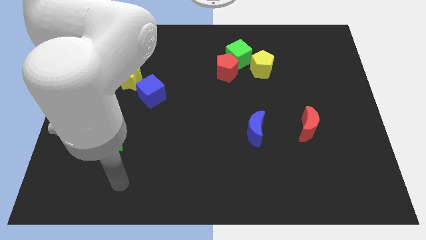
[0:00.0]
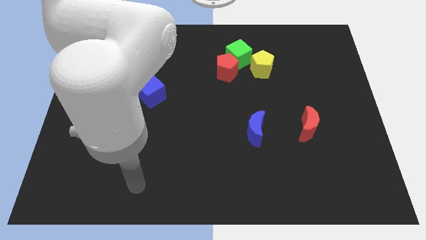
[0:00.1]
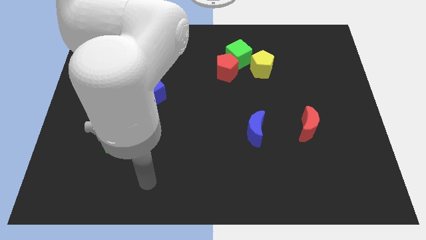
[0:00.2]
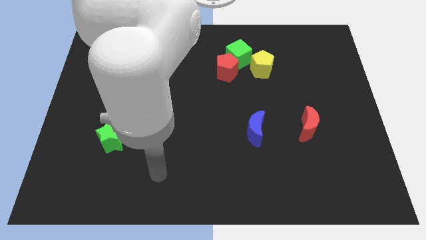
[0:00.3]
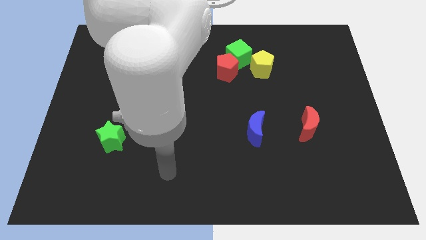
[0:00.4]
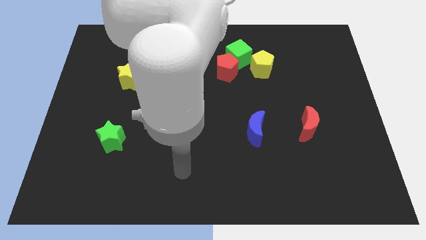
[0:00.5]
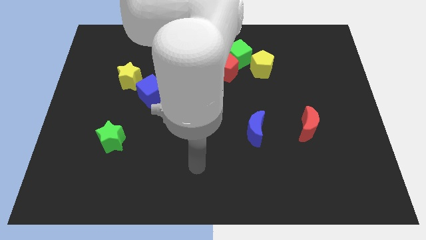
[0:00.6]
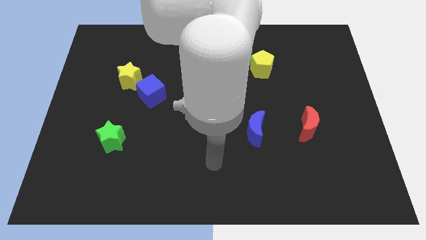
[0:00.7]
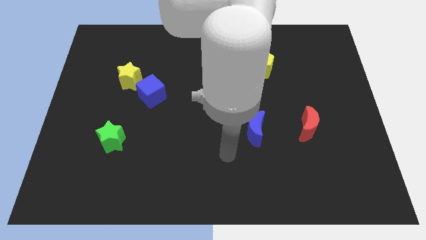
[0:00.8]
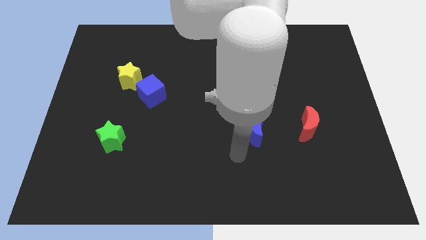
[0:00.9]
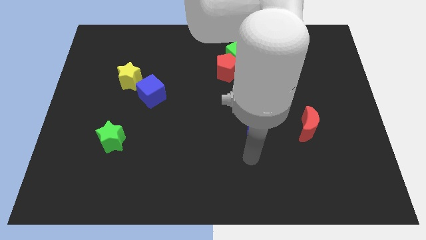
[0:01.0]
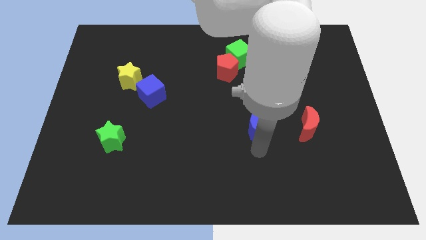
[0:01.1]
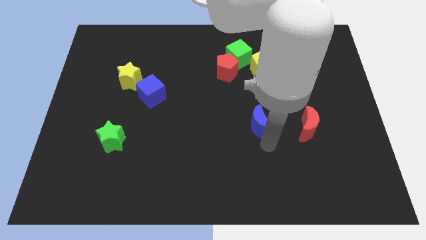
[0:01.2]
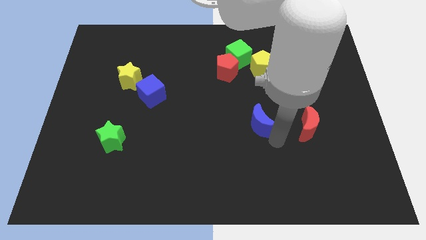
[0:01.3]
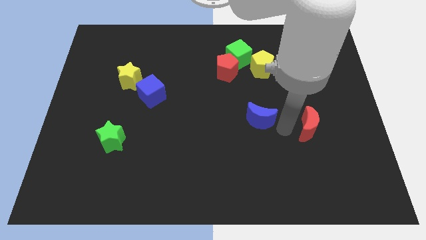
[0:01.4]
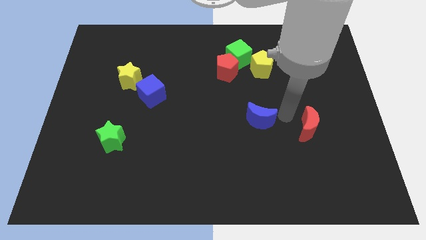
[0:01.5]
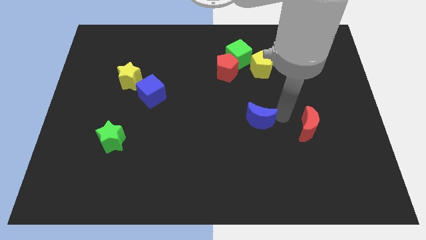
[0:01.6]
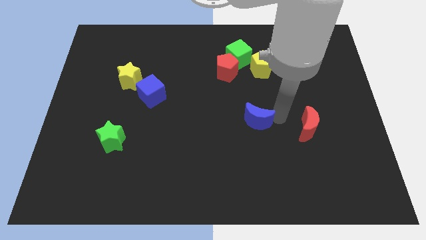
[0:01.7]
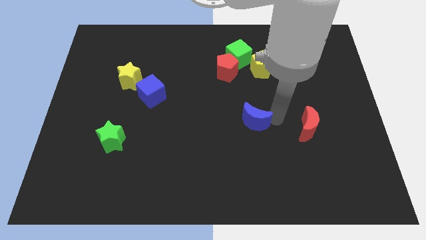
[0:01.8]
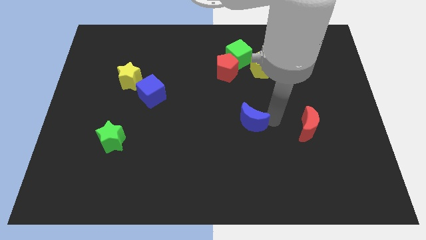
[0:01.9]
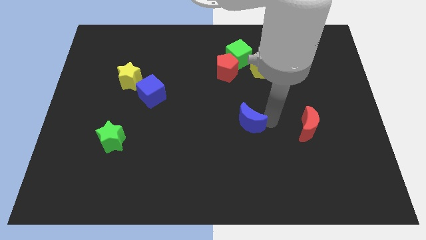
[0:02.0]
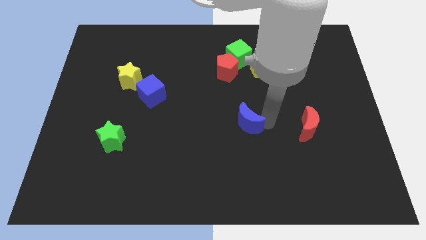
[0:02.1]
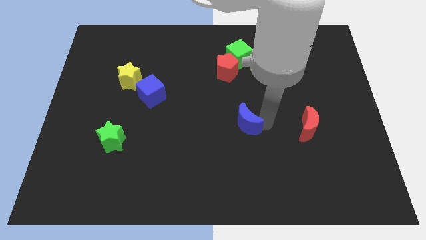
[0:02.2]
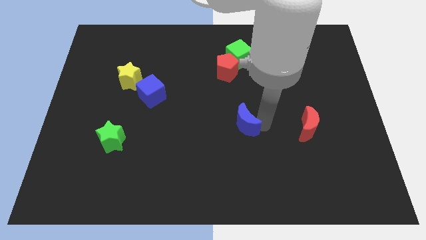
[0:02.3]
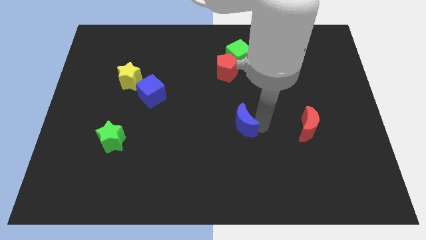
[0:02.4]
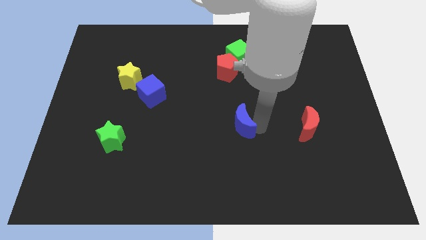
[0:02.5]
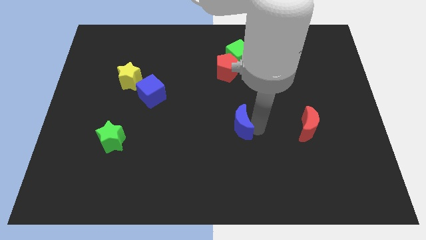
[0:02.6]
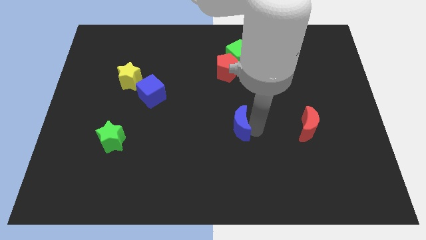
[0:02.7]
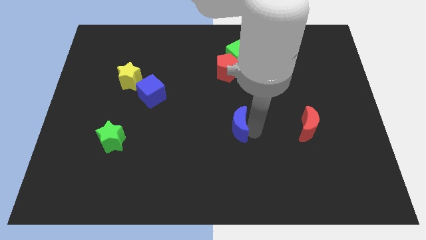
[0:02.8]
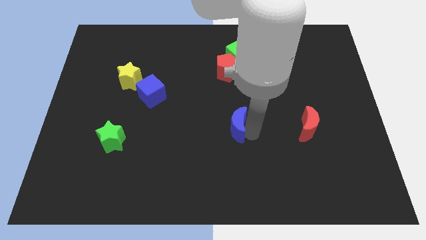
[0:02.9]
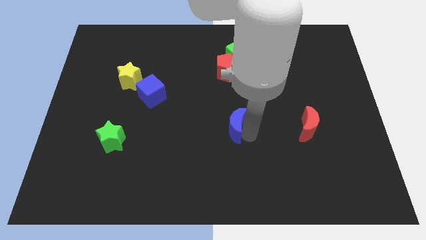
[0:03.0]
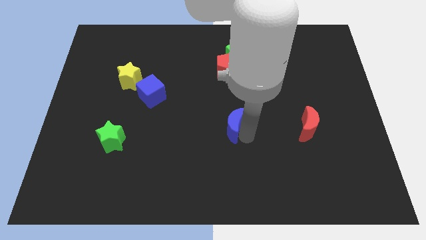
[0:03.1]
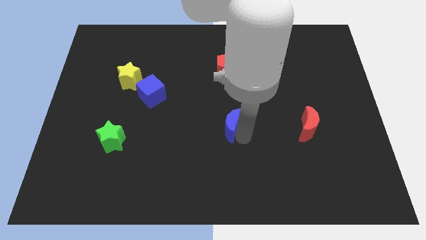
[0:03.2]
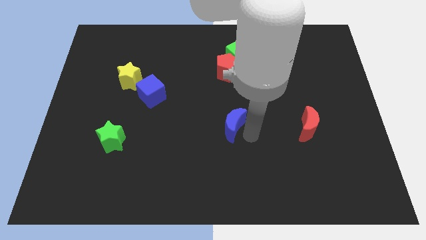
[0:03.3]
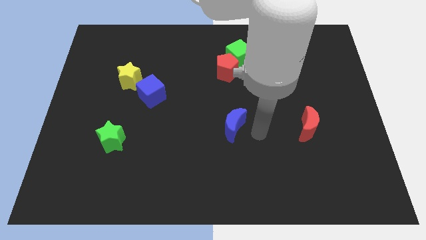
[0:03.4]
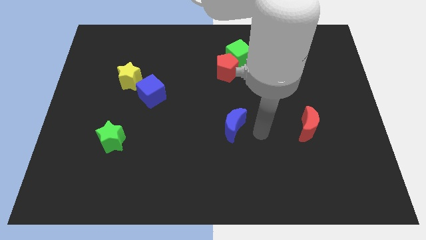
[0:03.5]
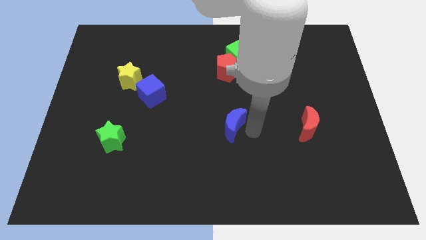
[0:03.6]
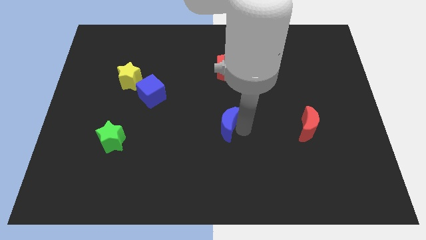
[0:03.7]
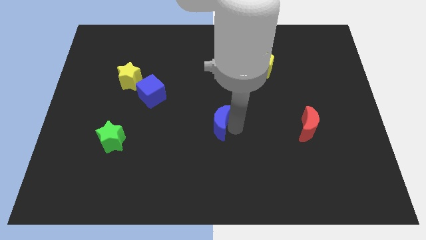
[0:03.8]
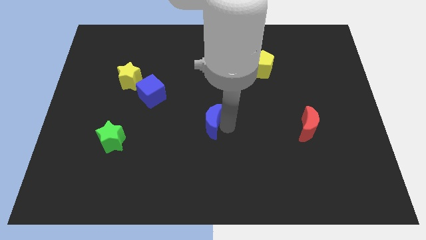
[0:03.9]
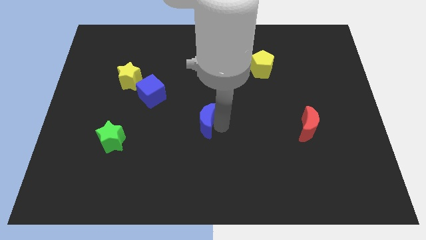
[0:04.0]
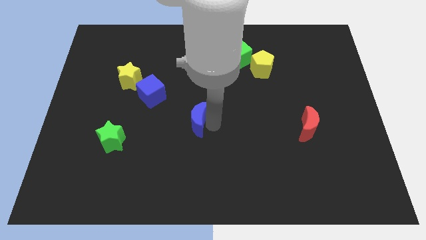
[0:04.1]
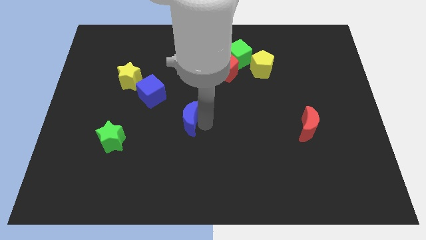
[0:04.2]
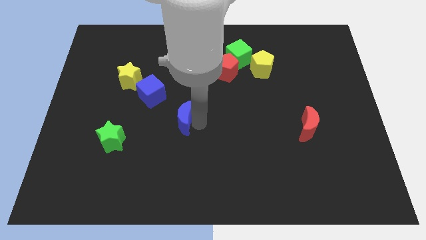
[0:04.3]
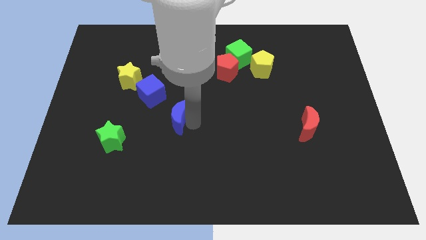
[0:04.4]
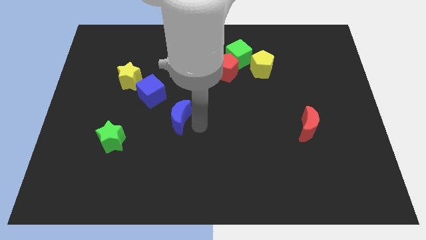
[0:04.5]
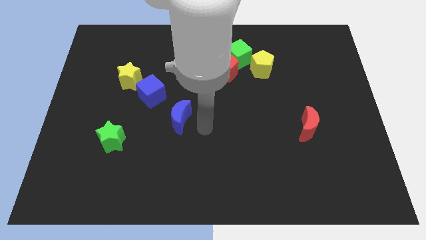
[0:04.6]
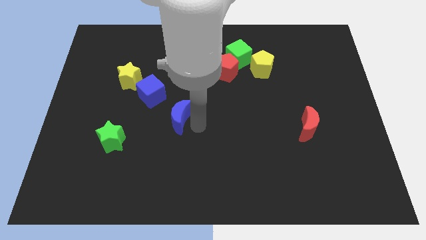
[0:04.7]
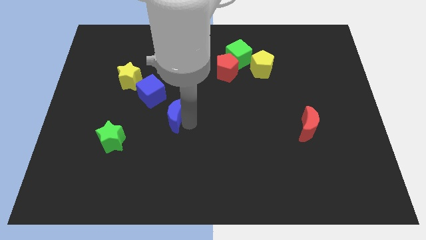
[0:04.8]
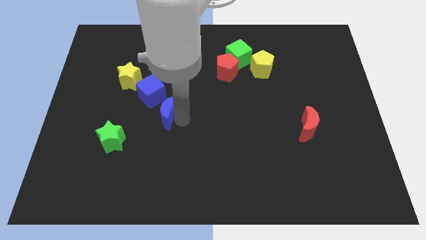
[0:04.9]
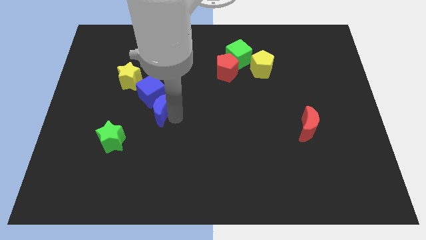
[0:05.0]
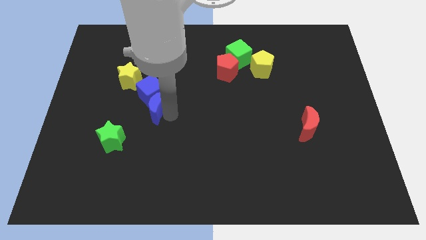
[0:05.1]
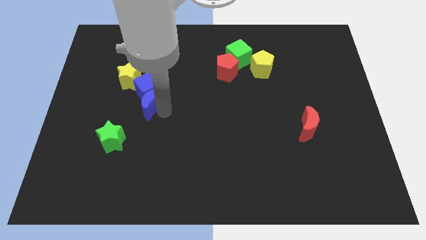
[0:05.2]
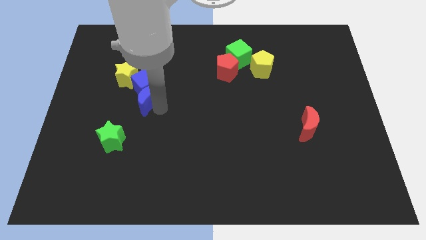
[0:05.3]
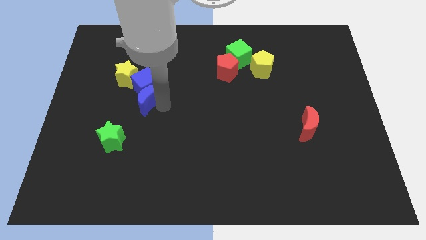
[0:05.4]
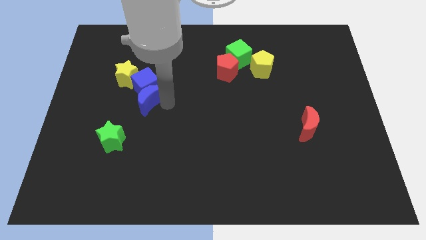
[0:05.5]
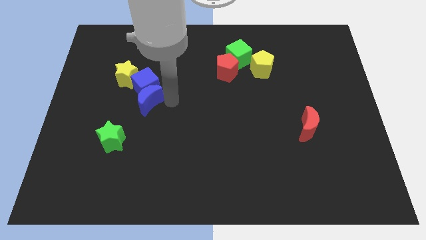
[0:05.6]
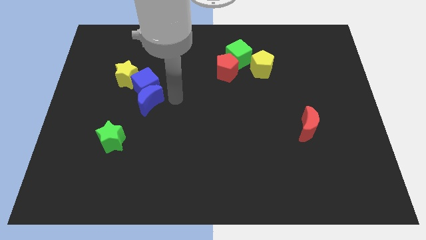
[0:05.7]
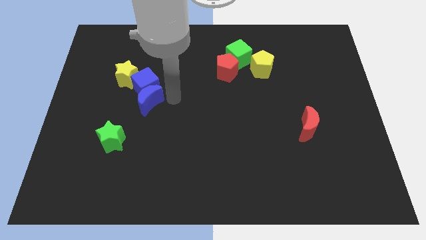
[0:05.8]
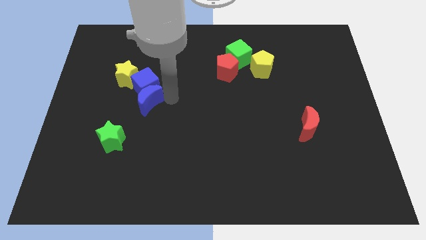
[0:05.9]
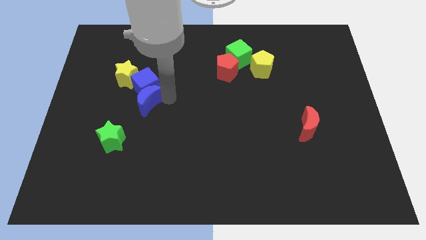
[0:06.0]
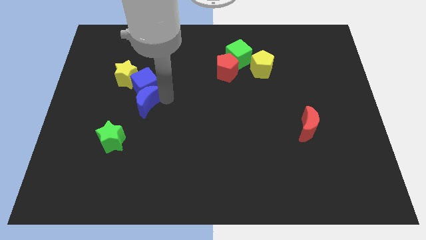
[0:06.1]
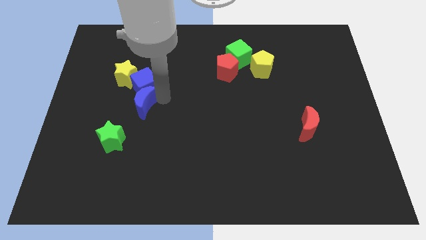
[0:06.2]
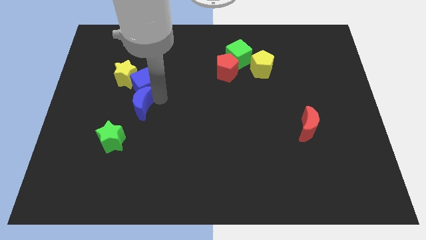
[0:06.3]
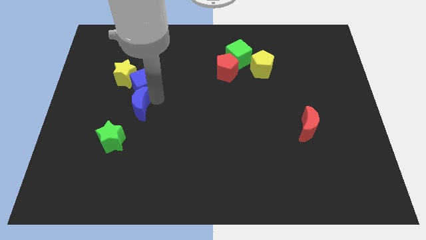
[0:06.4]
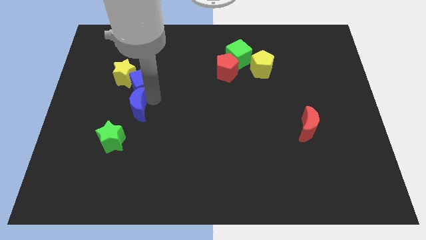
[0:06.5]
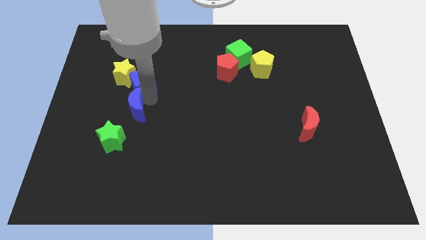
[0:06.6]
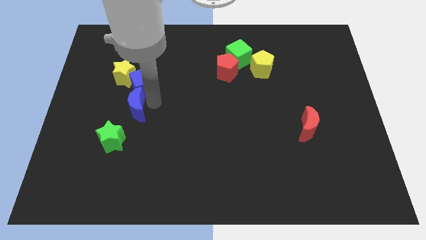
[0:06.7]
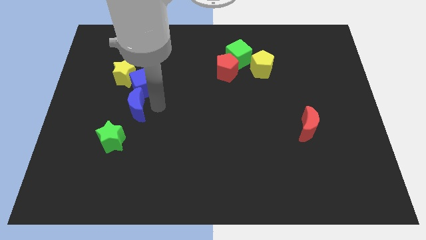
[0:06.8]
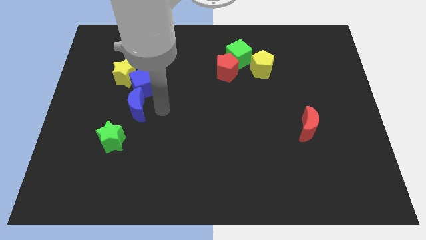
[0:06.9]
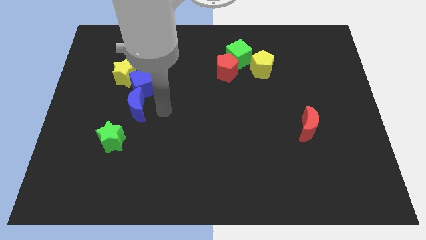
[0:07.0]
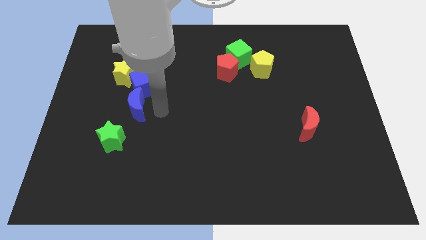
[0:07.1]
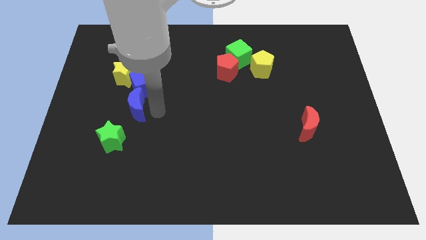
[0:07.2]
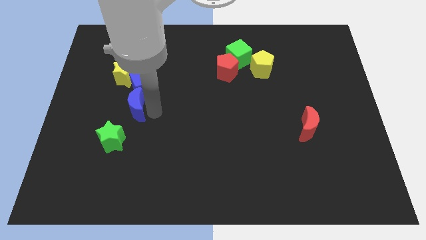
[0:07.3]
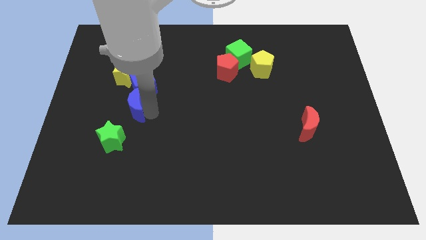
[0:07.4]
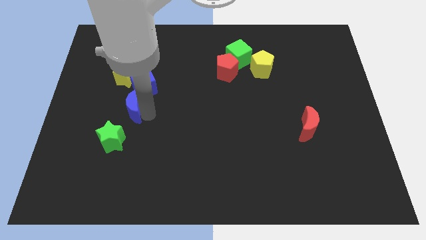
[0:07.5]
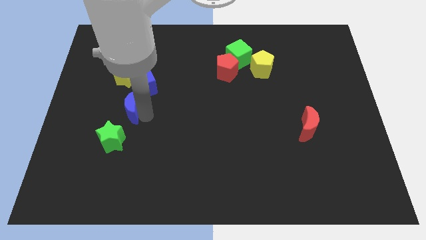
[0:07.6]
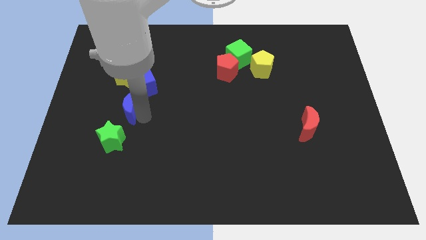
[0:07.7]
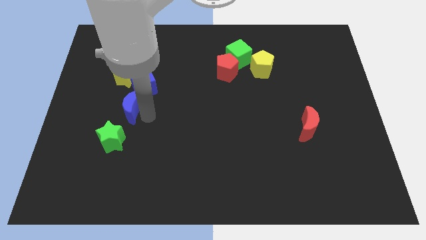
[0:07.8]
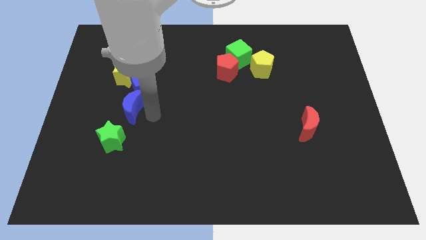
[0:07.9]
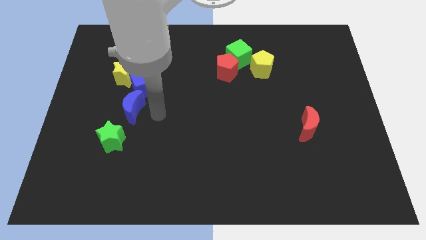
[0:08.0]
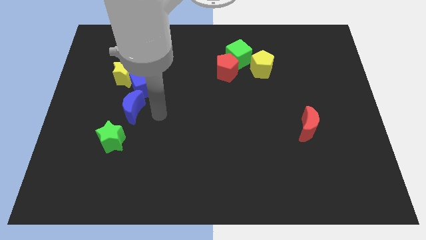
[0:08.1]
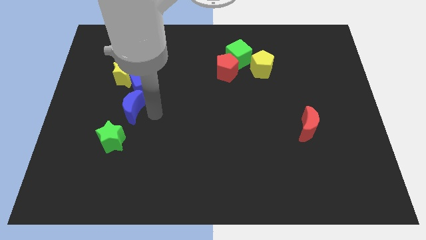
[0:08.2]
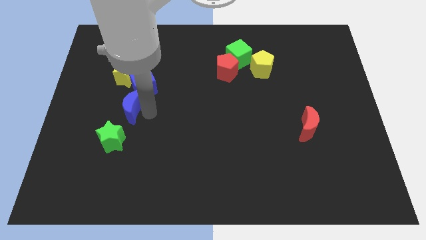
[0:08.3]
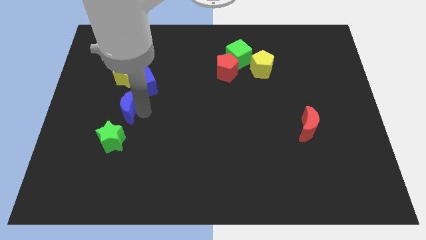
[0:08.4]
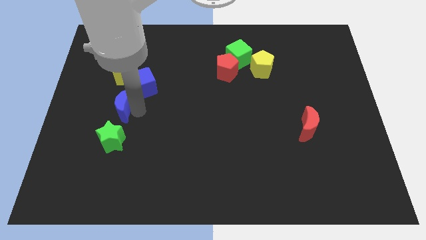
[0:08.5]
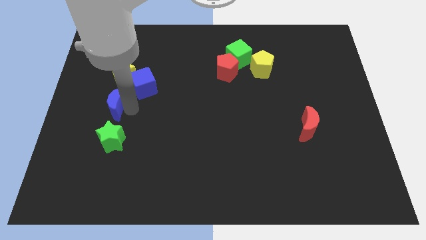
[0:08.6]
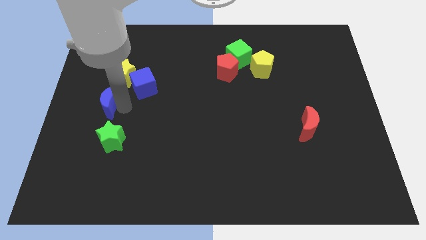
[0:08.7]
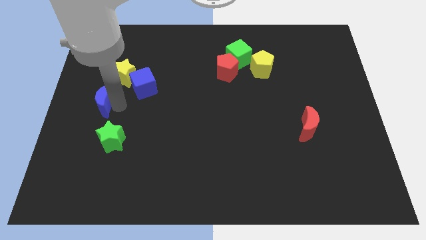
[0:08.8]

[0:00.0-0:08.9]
slide the blue moon to the center left
